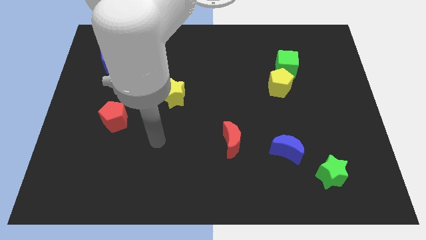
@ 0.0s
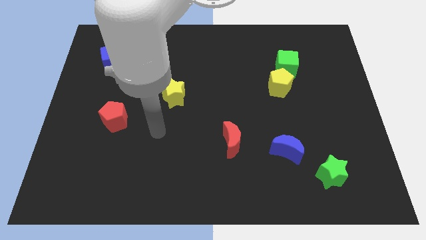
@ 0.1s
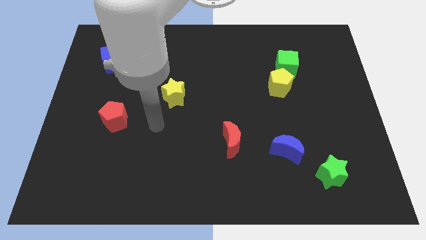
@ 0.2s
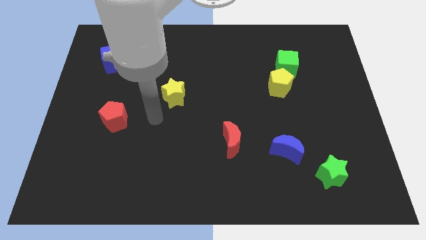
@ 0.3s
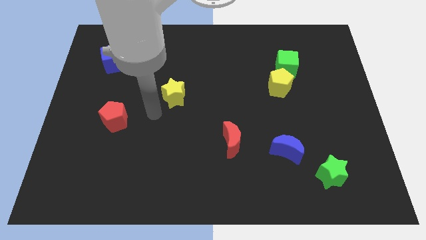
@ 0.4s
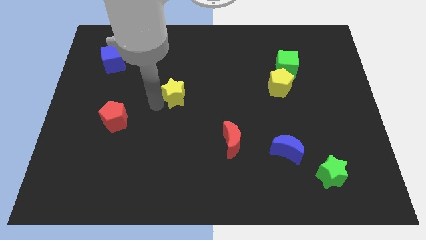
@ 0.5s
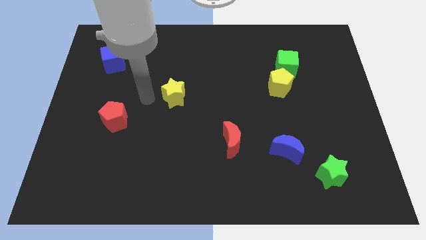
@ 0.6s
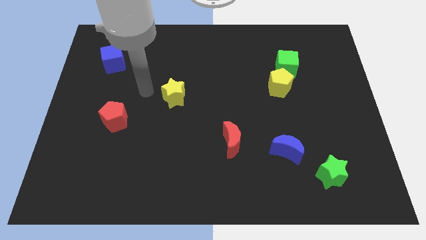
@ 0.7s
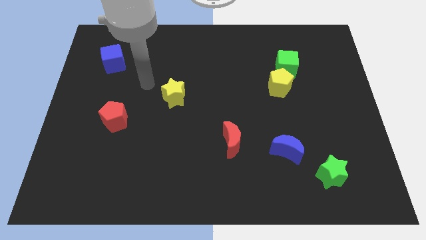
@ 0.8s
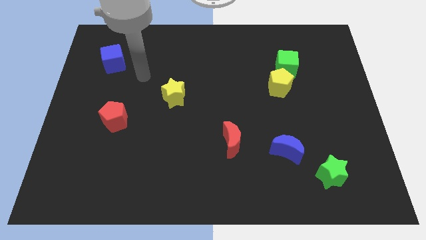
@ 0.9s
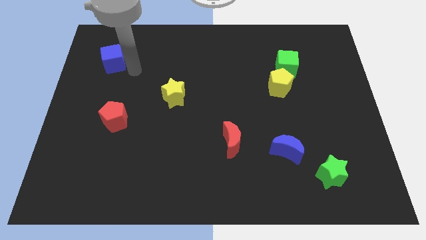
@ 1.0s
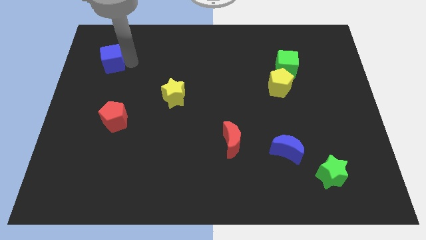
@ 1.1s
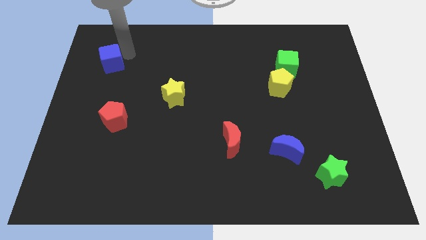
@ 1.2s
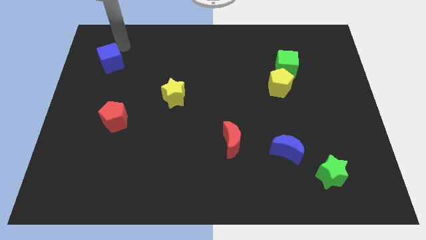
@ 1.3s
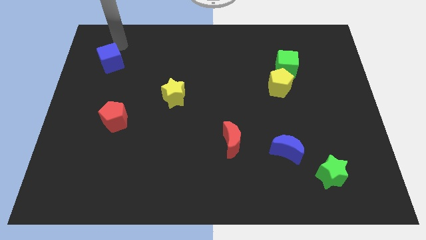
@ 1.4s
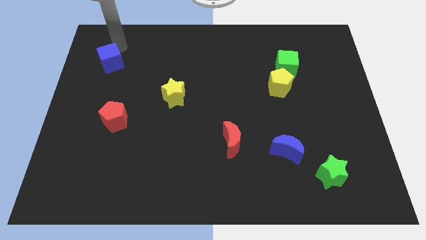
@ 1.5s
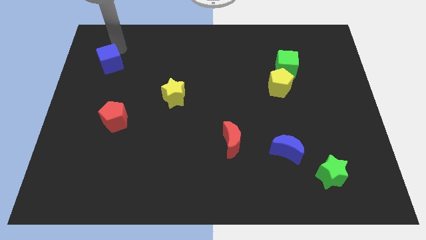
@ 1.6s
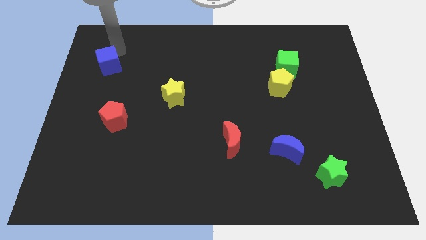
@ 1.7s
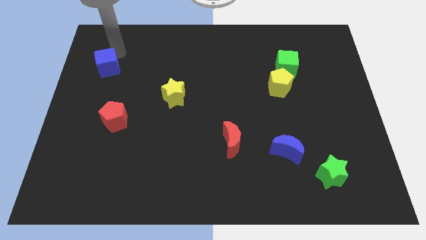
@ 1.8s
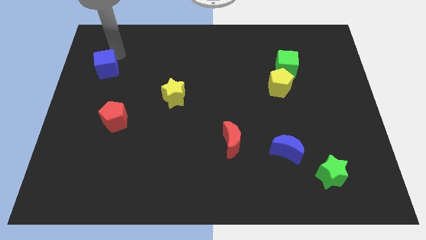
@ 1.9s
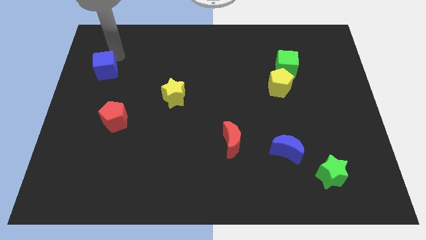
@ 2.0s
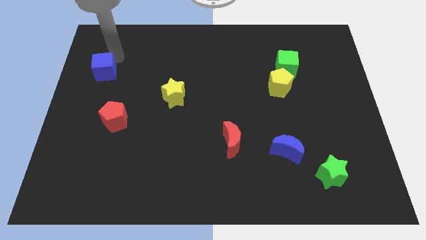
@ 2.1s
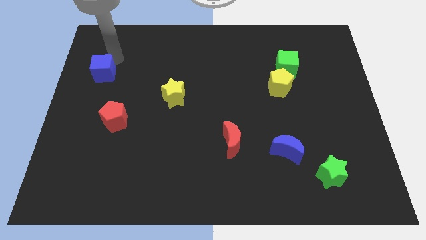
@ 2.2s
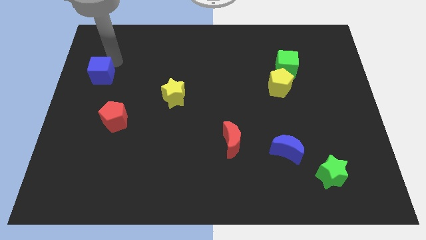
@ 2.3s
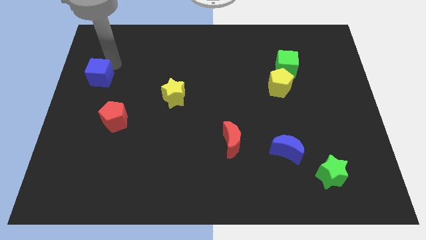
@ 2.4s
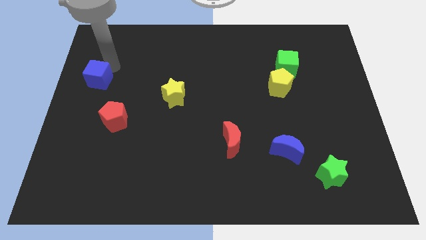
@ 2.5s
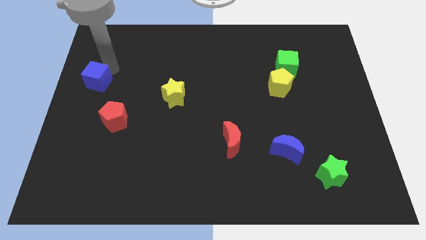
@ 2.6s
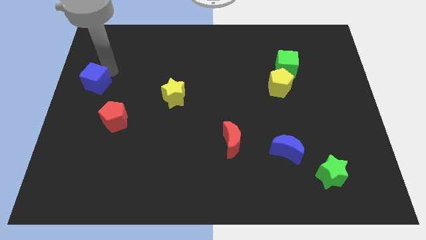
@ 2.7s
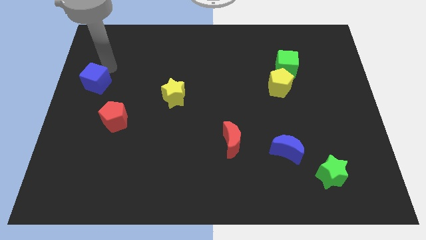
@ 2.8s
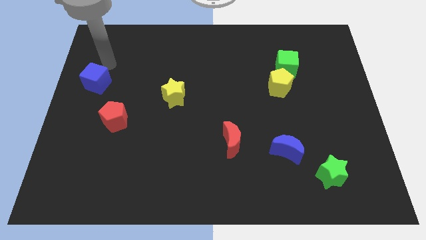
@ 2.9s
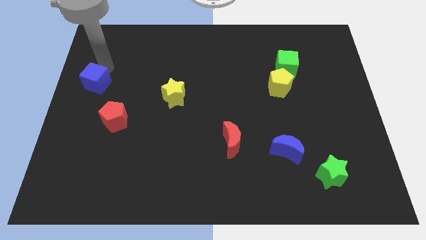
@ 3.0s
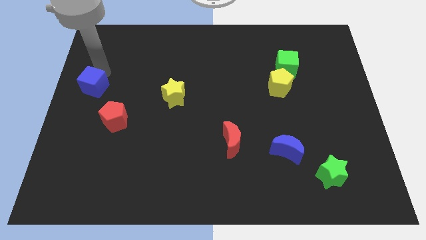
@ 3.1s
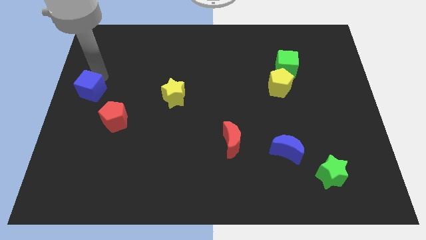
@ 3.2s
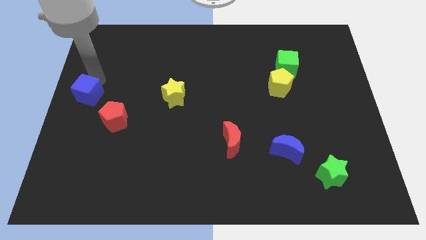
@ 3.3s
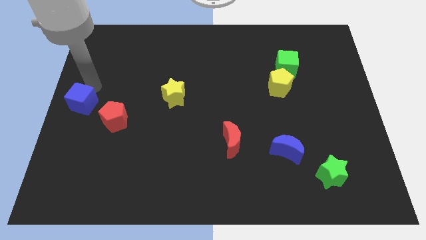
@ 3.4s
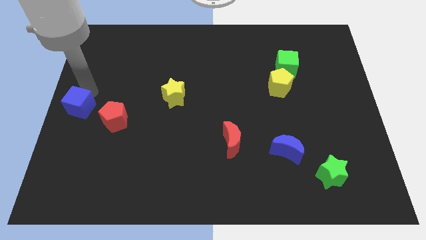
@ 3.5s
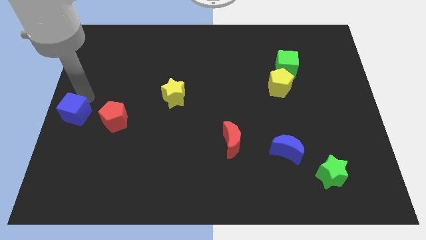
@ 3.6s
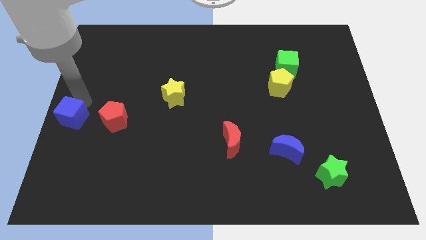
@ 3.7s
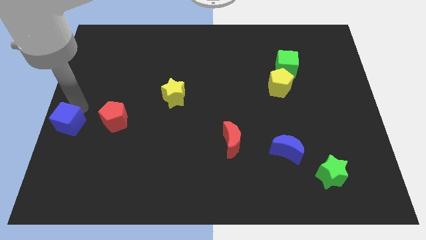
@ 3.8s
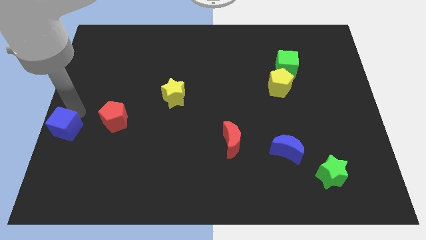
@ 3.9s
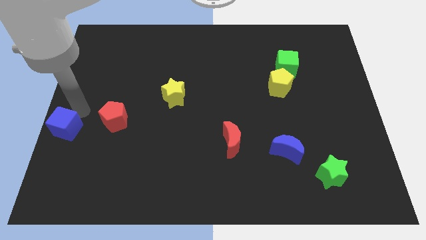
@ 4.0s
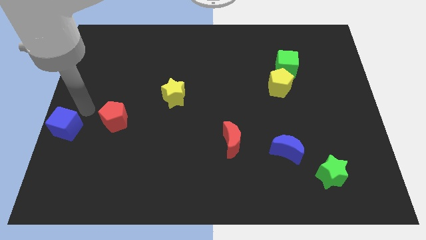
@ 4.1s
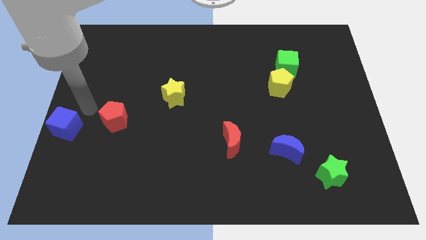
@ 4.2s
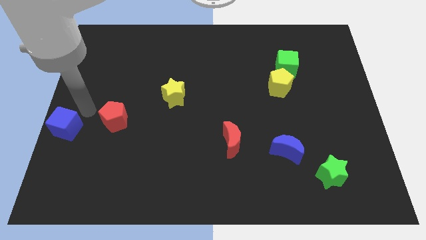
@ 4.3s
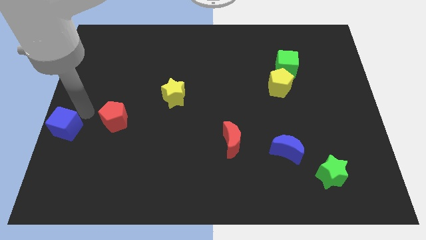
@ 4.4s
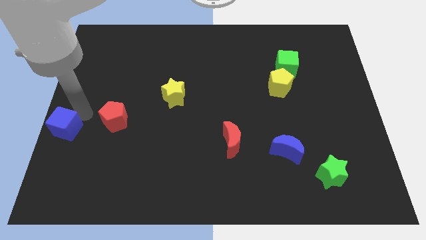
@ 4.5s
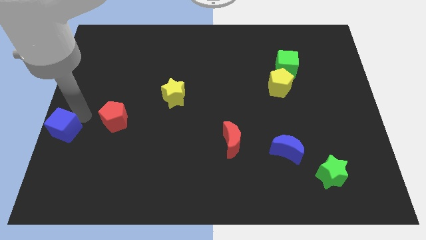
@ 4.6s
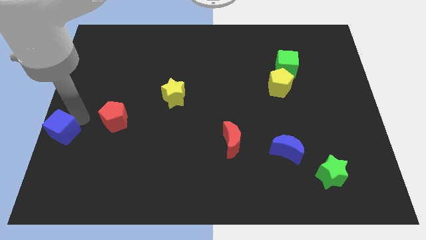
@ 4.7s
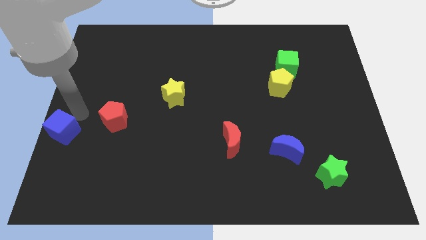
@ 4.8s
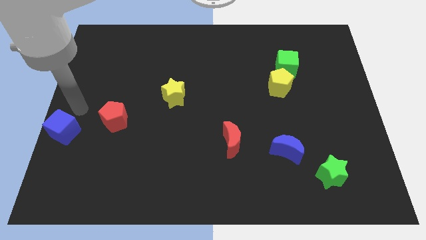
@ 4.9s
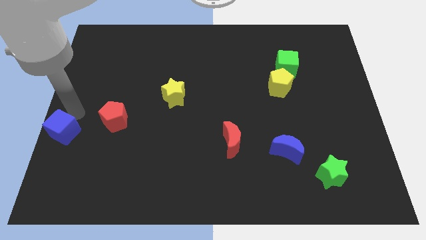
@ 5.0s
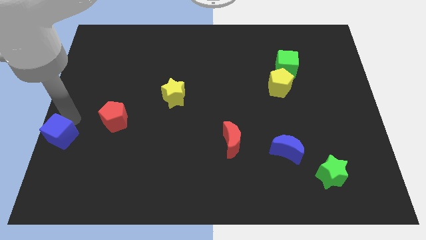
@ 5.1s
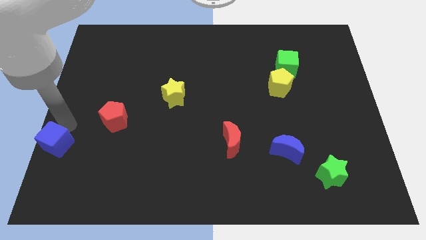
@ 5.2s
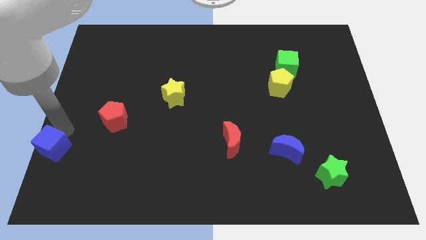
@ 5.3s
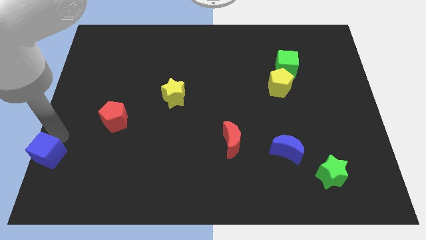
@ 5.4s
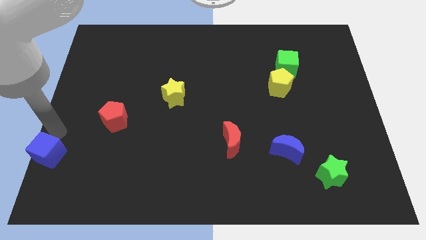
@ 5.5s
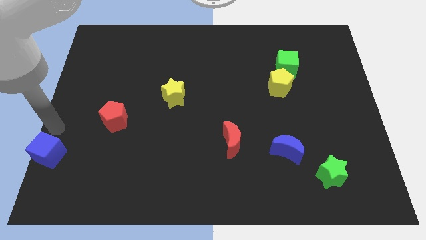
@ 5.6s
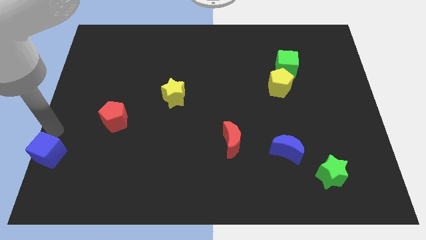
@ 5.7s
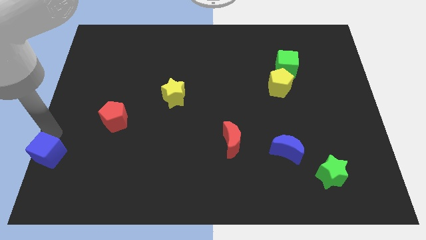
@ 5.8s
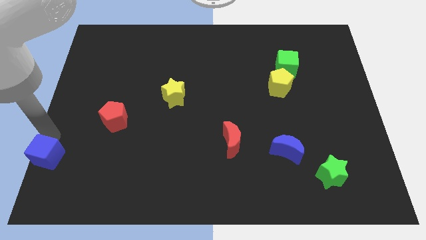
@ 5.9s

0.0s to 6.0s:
put the blue cube to the bottom left
